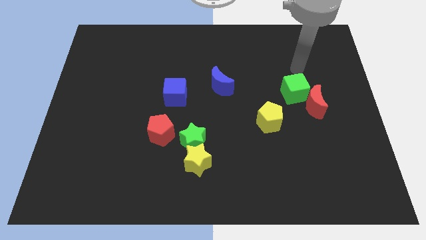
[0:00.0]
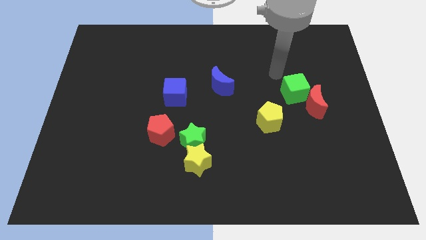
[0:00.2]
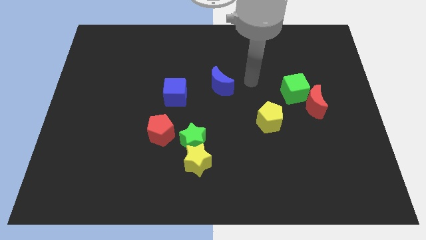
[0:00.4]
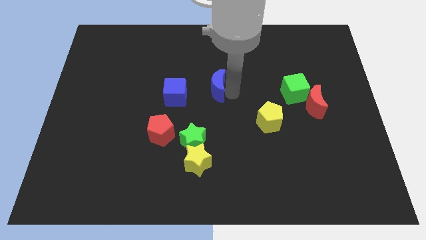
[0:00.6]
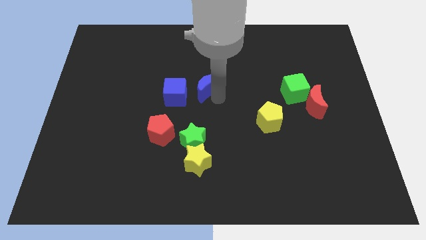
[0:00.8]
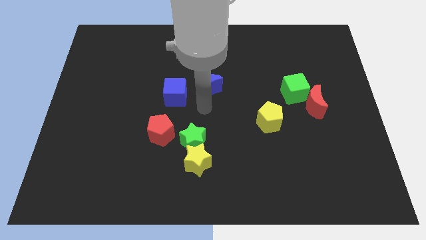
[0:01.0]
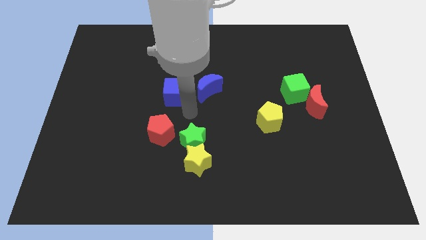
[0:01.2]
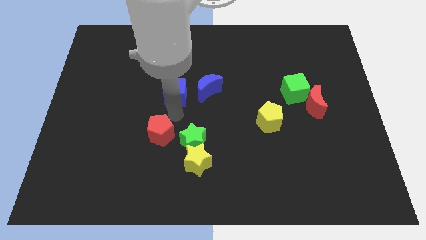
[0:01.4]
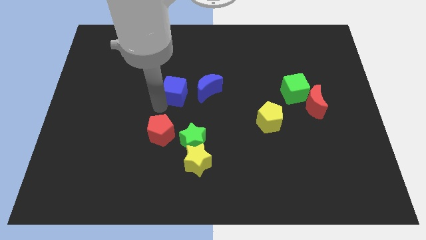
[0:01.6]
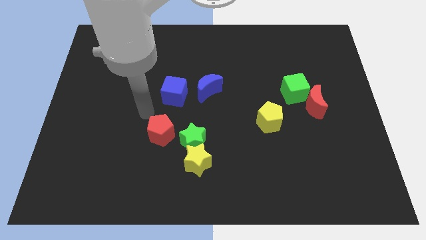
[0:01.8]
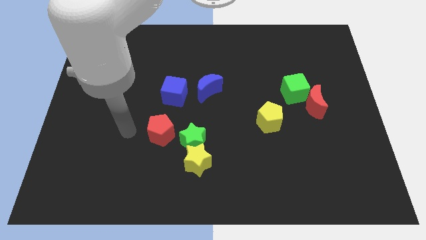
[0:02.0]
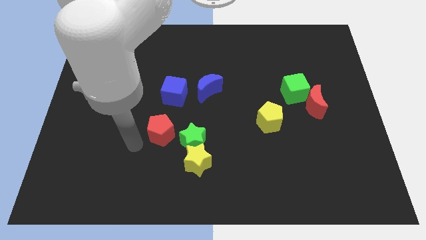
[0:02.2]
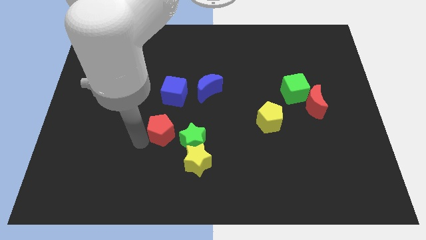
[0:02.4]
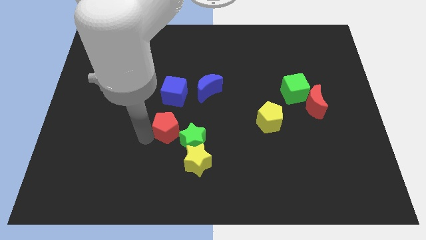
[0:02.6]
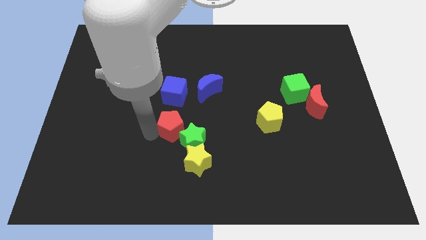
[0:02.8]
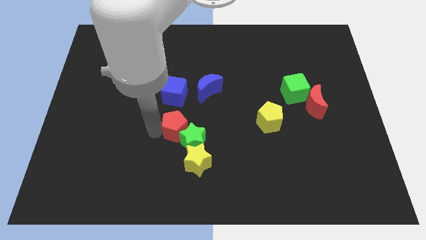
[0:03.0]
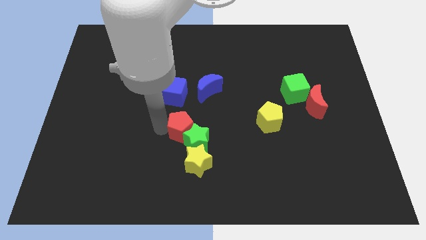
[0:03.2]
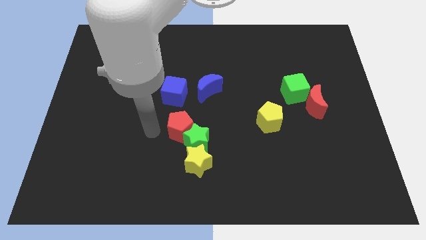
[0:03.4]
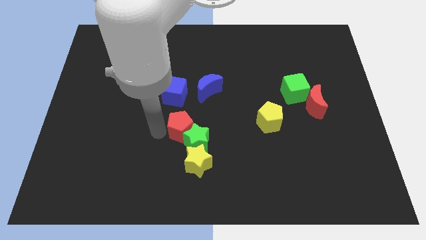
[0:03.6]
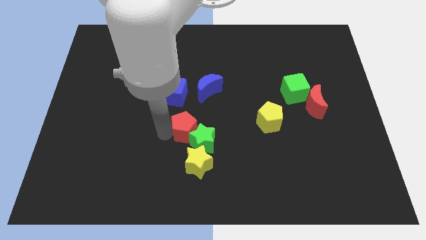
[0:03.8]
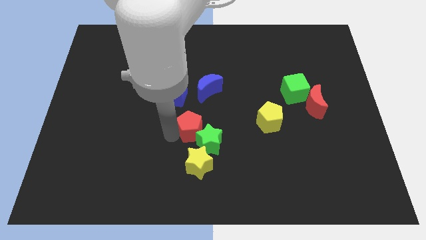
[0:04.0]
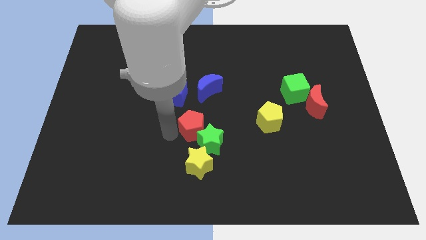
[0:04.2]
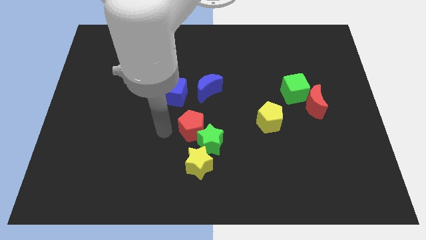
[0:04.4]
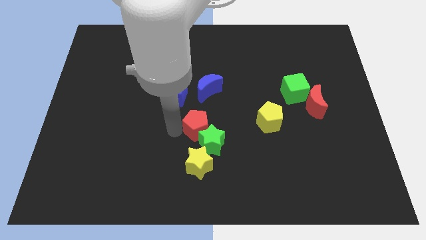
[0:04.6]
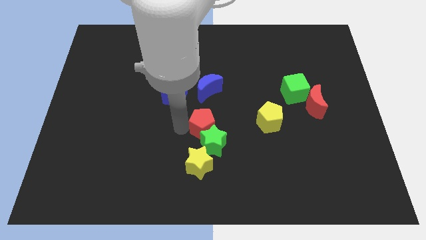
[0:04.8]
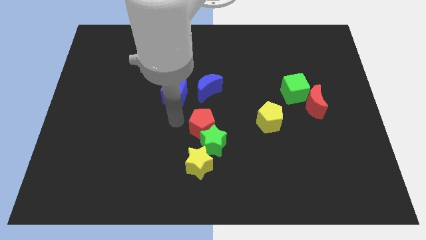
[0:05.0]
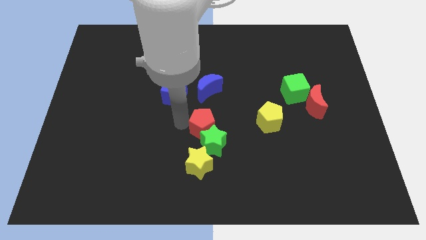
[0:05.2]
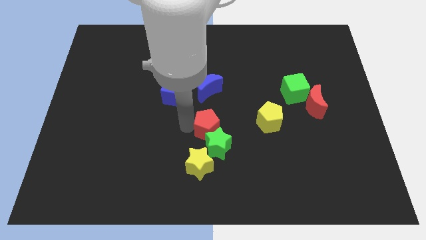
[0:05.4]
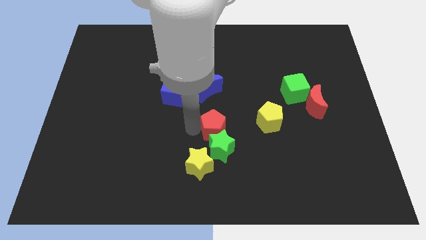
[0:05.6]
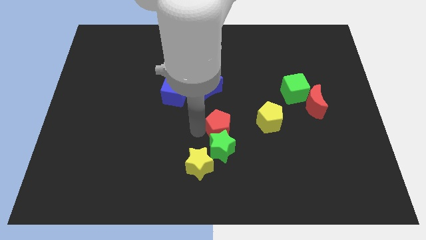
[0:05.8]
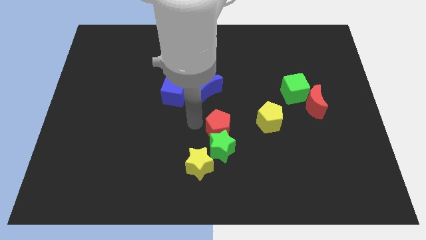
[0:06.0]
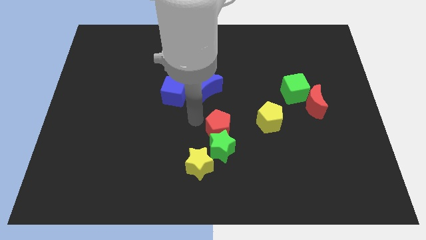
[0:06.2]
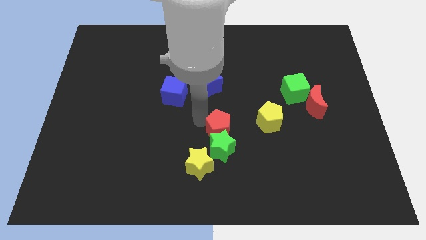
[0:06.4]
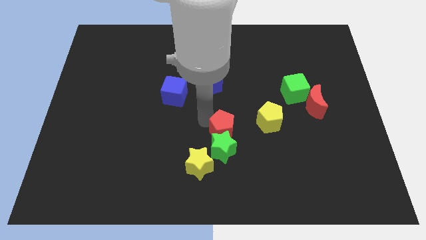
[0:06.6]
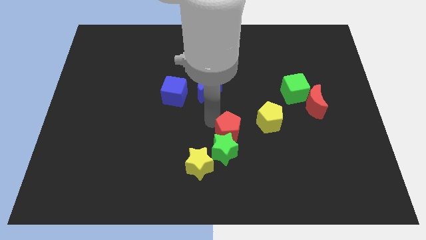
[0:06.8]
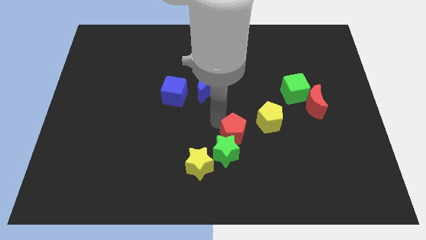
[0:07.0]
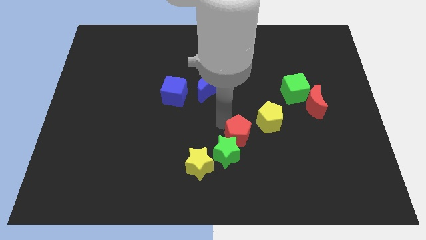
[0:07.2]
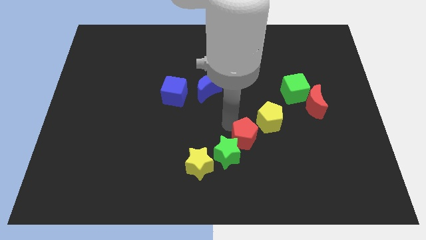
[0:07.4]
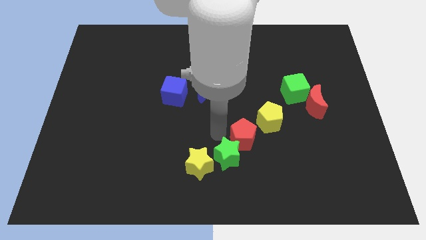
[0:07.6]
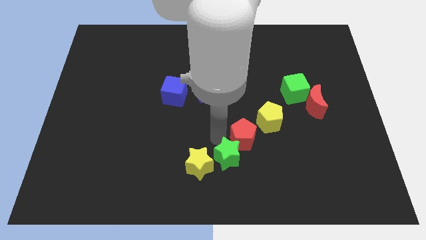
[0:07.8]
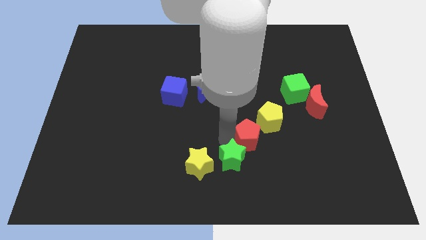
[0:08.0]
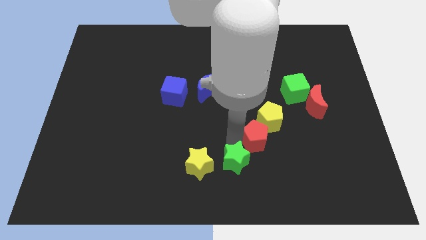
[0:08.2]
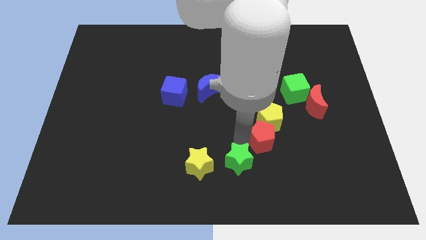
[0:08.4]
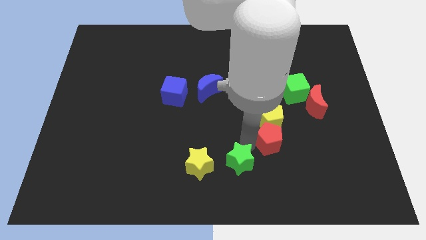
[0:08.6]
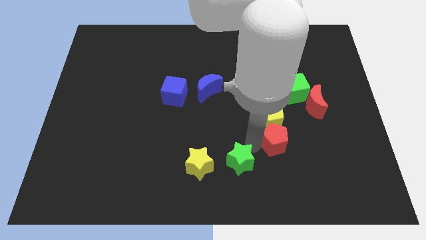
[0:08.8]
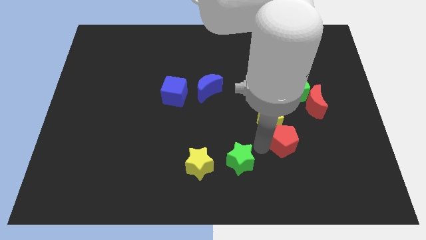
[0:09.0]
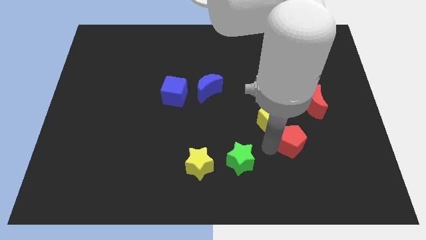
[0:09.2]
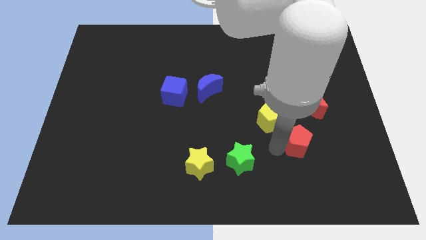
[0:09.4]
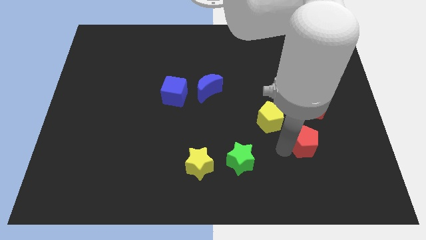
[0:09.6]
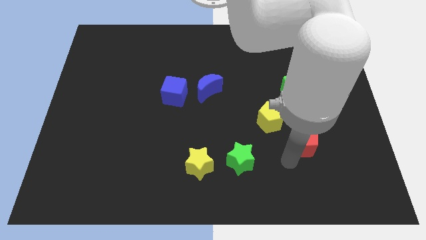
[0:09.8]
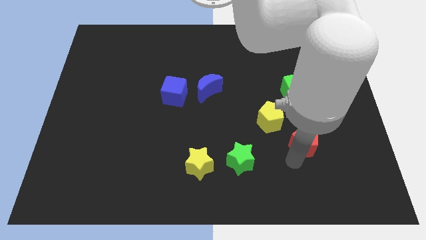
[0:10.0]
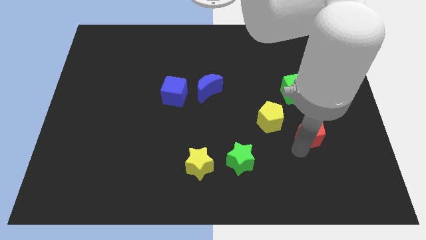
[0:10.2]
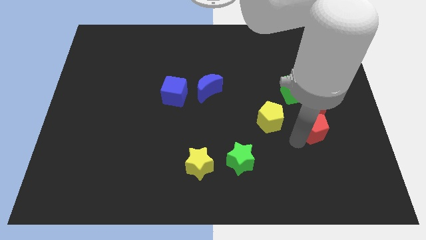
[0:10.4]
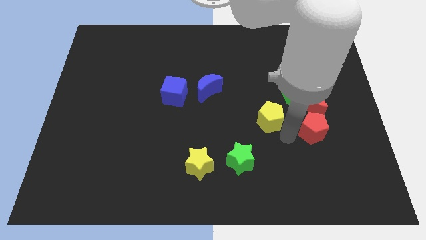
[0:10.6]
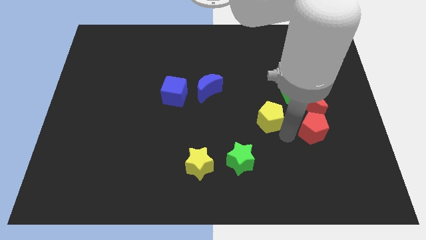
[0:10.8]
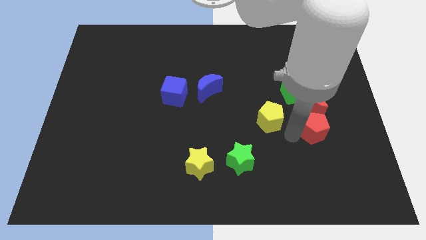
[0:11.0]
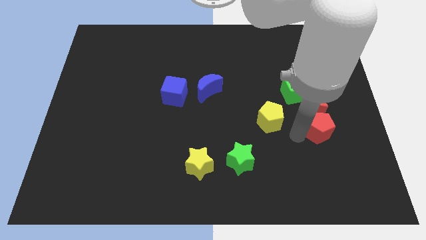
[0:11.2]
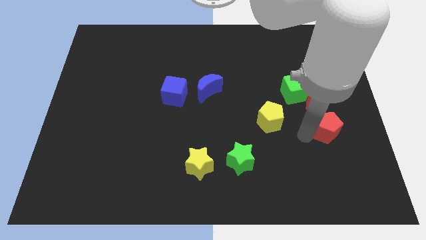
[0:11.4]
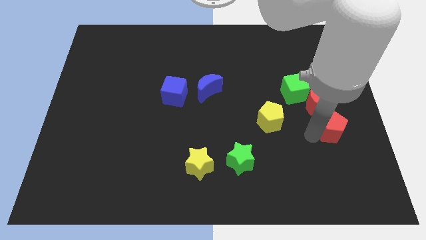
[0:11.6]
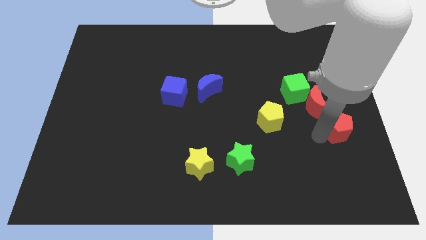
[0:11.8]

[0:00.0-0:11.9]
put the red pentagon to the right side of the board

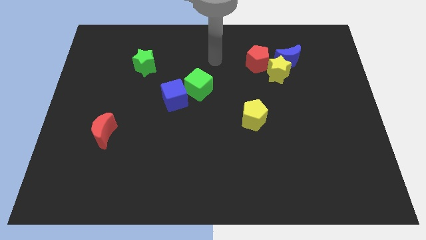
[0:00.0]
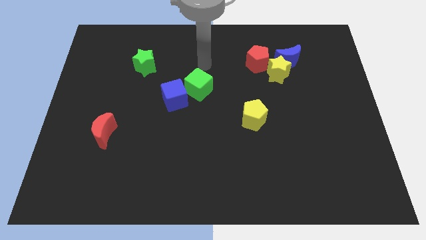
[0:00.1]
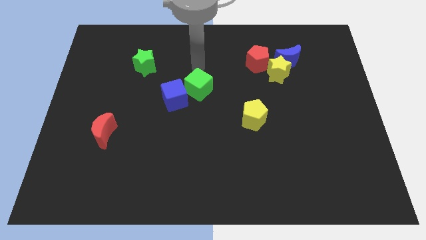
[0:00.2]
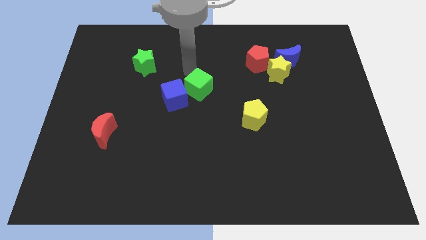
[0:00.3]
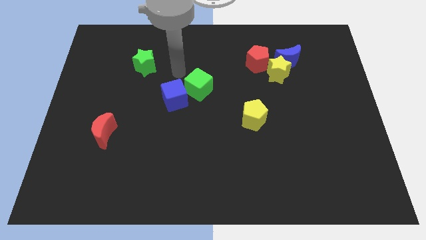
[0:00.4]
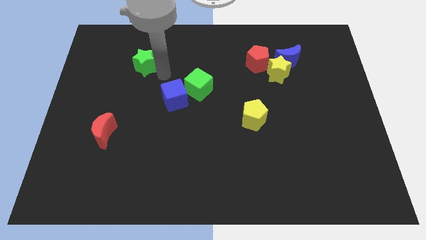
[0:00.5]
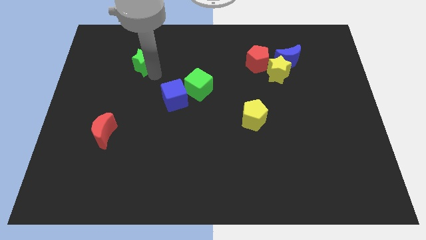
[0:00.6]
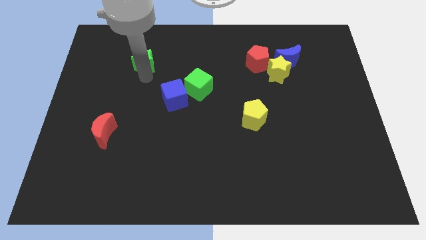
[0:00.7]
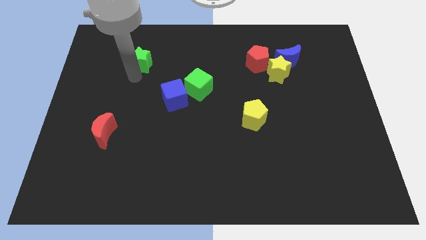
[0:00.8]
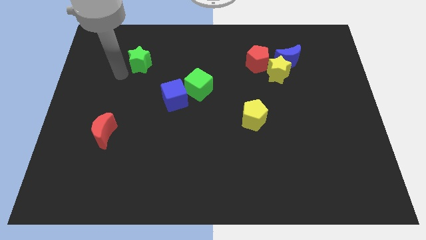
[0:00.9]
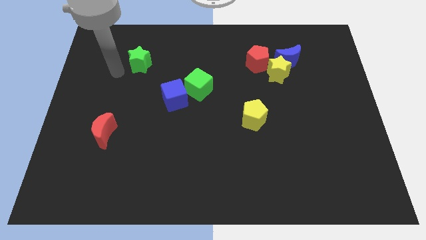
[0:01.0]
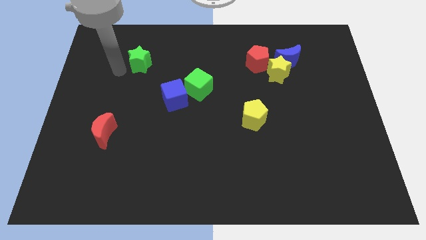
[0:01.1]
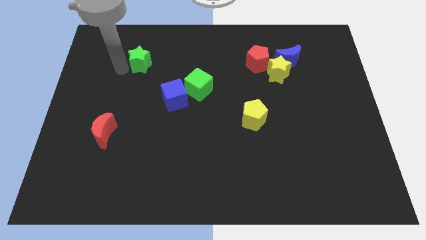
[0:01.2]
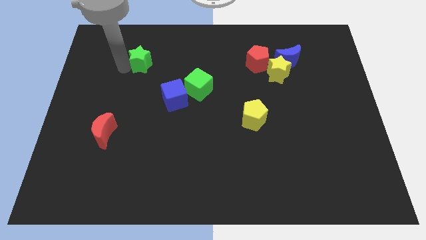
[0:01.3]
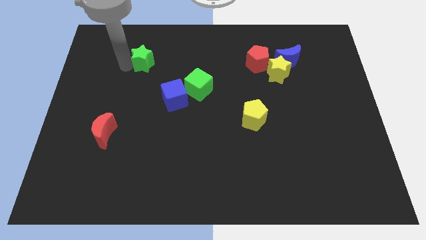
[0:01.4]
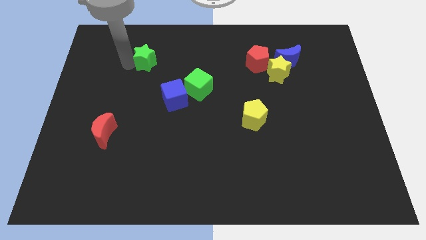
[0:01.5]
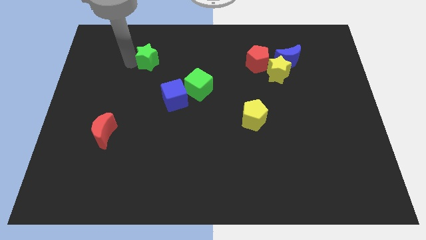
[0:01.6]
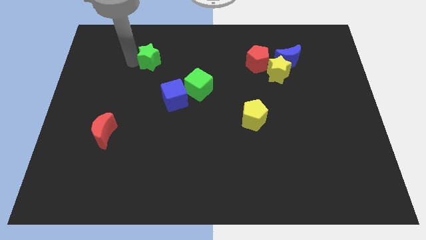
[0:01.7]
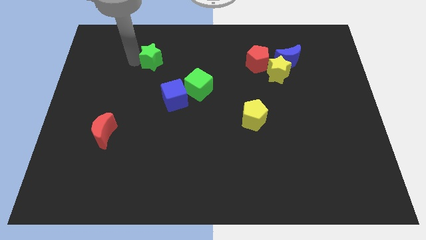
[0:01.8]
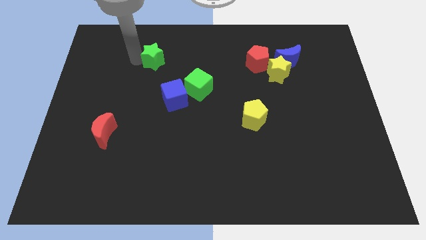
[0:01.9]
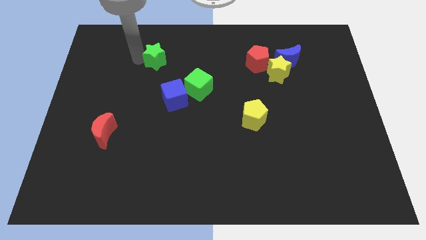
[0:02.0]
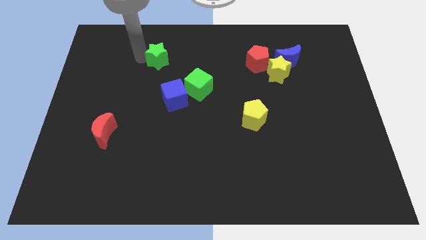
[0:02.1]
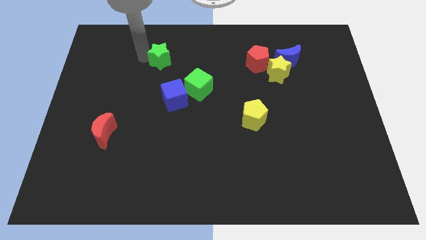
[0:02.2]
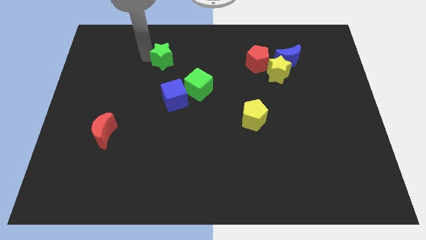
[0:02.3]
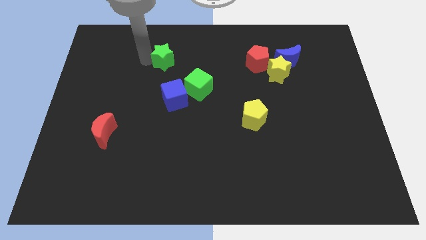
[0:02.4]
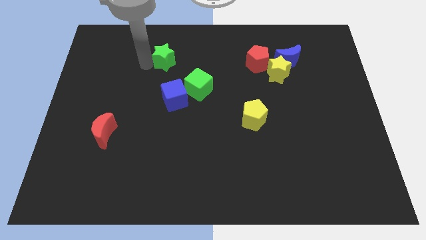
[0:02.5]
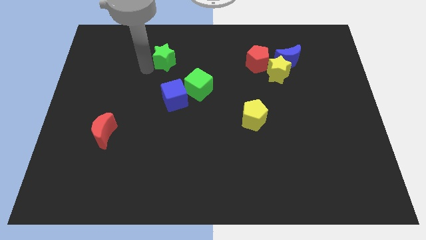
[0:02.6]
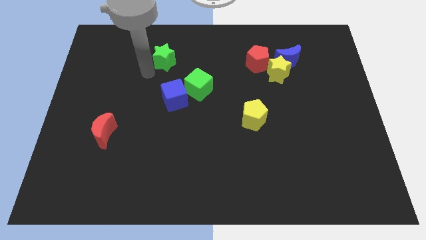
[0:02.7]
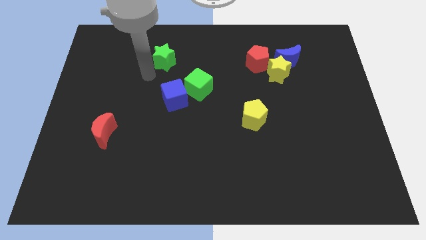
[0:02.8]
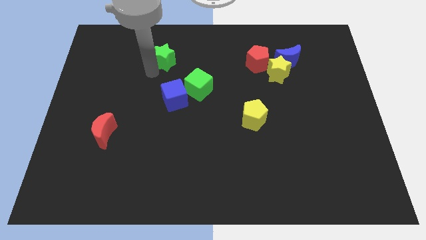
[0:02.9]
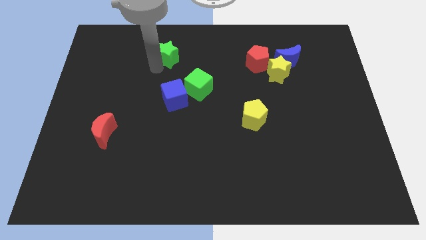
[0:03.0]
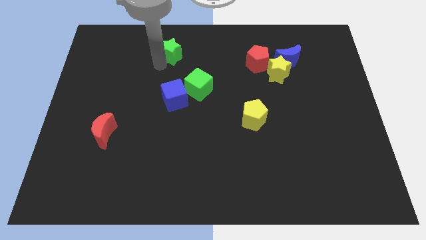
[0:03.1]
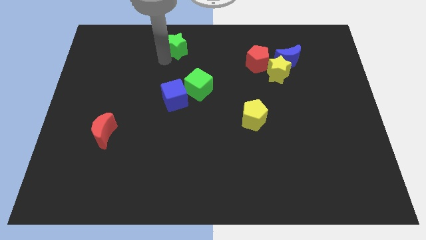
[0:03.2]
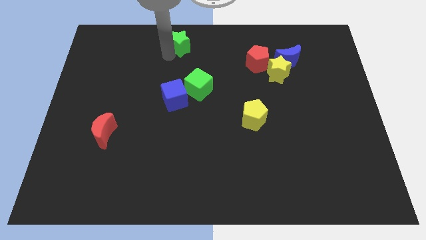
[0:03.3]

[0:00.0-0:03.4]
push the green star to the towards your base
